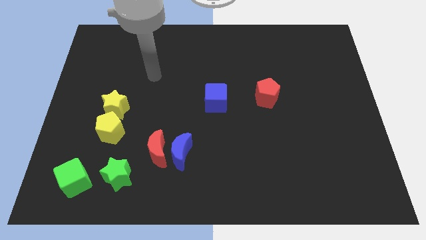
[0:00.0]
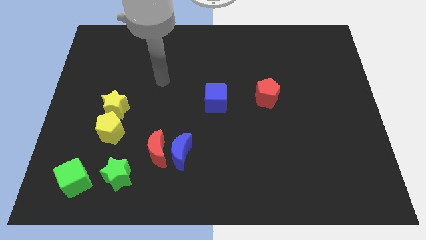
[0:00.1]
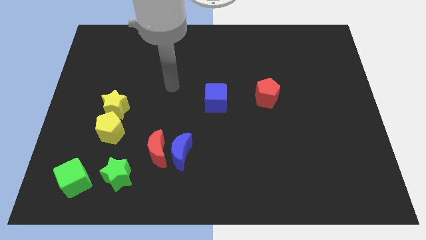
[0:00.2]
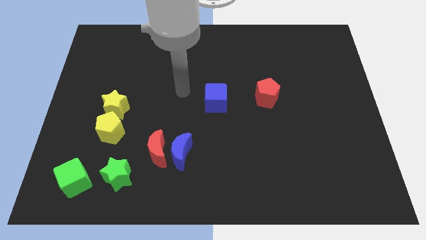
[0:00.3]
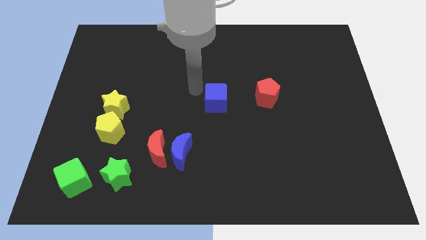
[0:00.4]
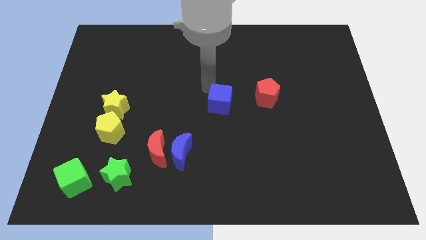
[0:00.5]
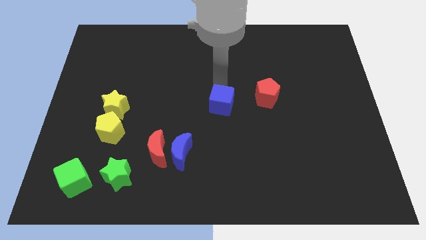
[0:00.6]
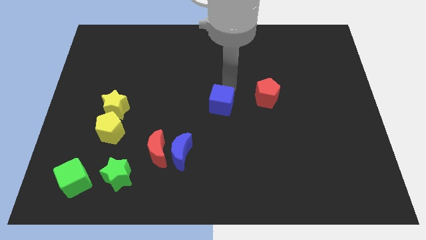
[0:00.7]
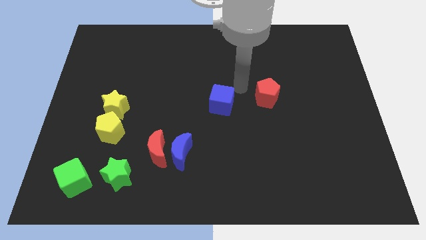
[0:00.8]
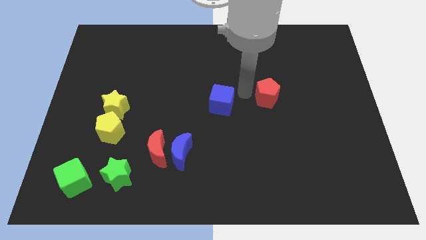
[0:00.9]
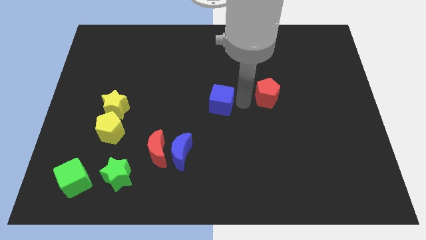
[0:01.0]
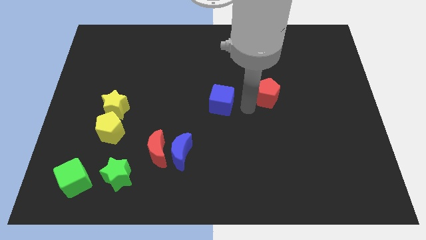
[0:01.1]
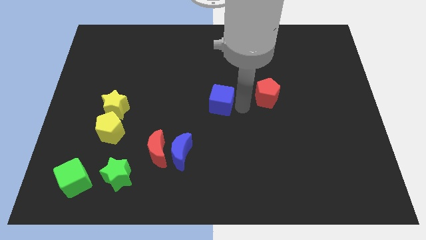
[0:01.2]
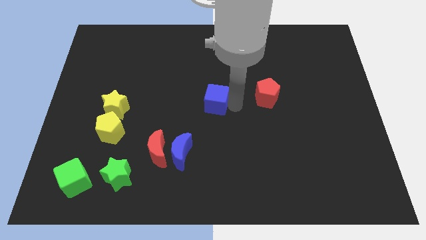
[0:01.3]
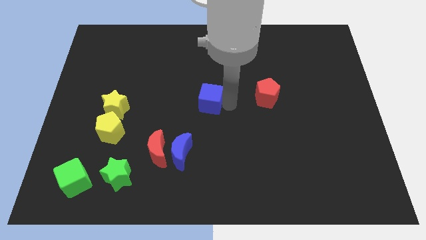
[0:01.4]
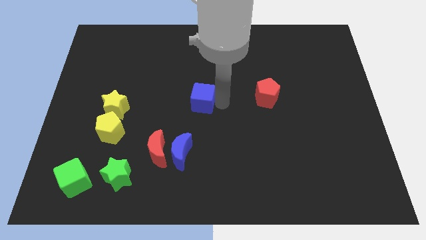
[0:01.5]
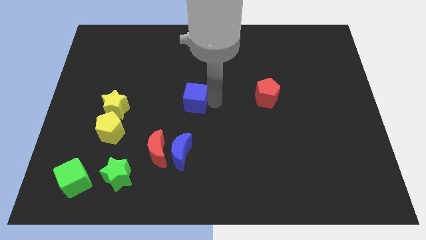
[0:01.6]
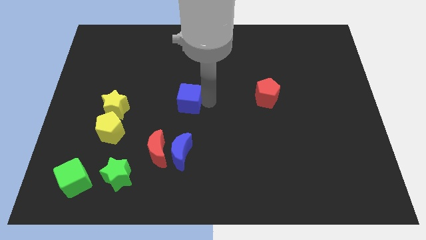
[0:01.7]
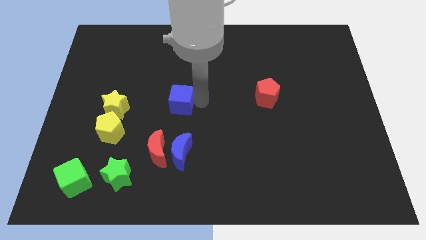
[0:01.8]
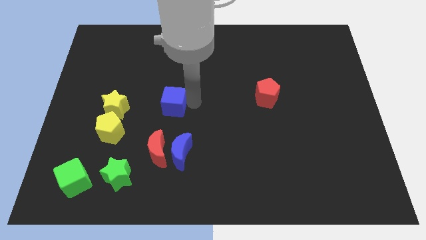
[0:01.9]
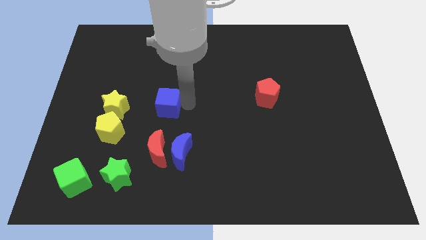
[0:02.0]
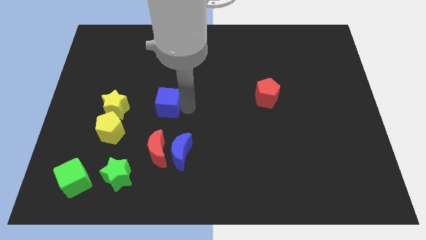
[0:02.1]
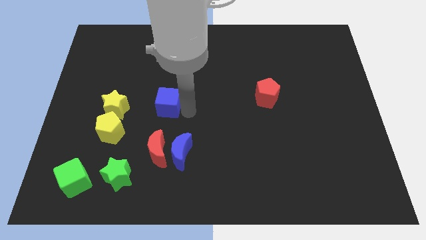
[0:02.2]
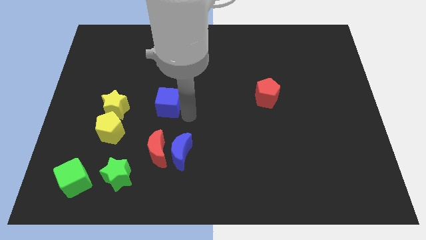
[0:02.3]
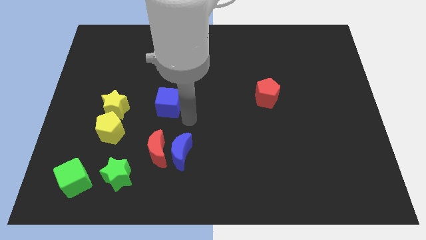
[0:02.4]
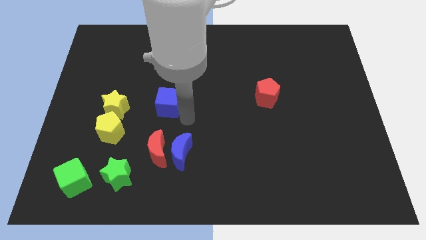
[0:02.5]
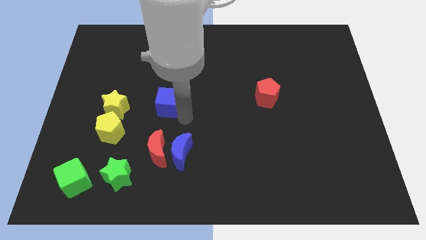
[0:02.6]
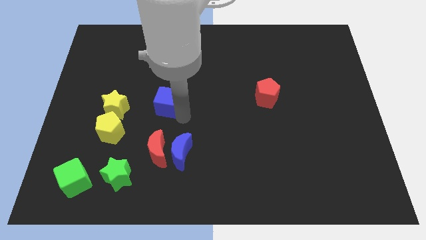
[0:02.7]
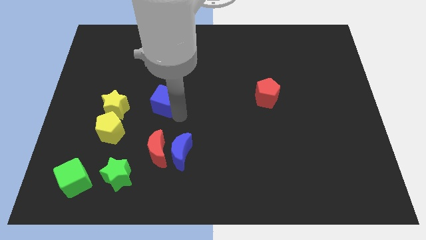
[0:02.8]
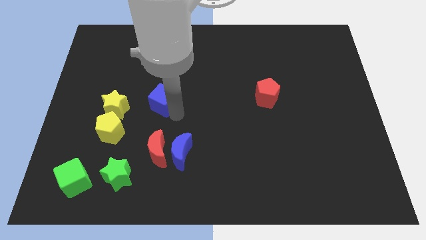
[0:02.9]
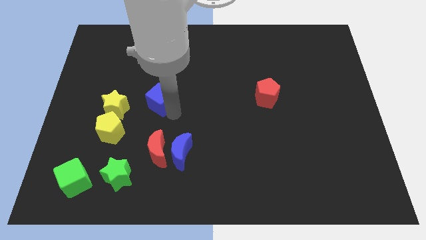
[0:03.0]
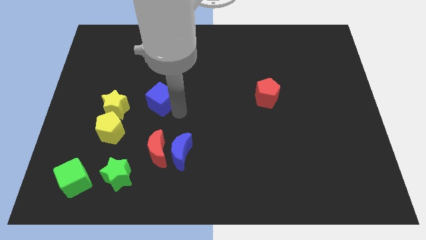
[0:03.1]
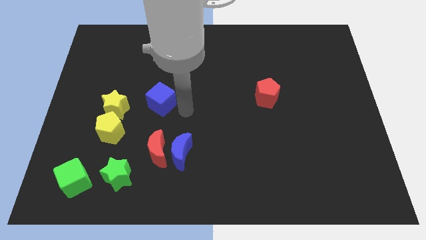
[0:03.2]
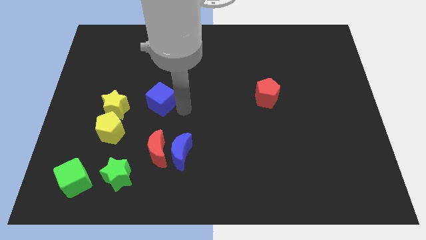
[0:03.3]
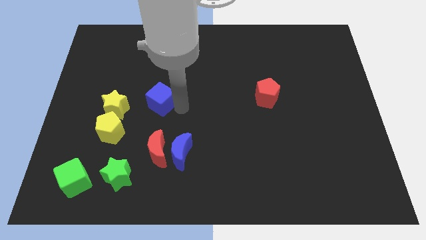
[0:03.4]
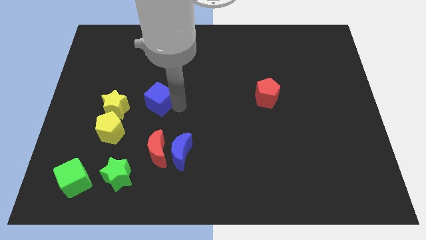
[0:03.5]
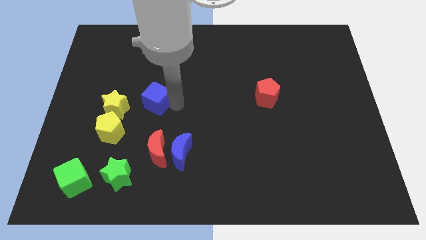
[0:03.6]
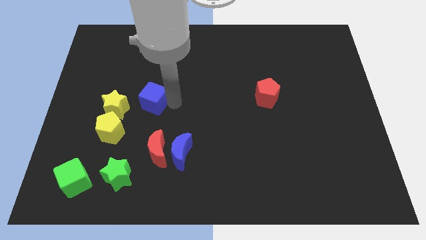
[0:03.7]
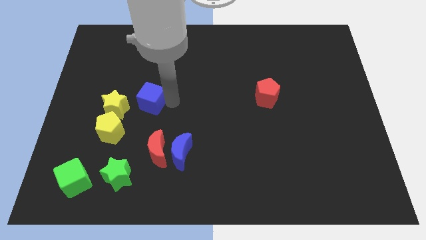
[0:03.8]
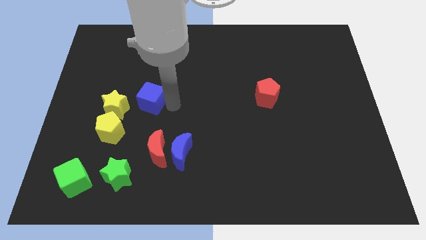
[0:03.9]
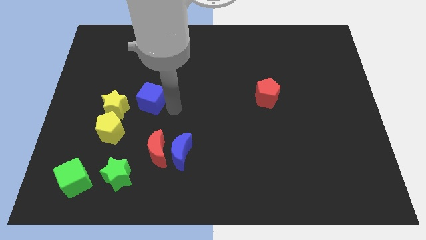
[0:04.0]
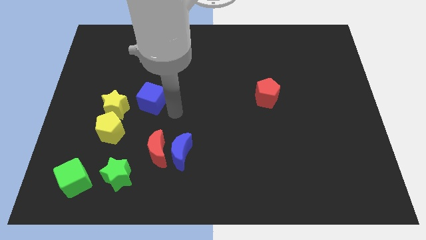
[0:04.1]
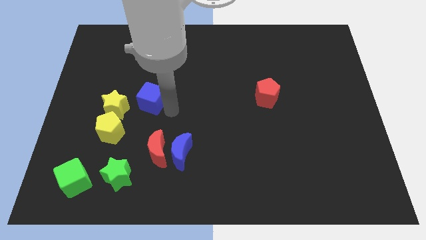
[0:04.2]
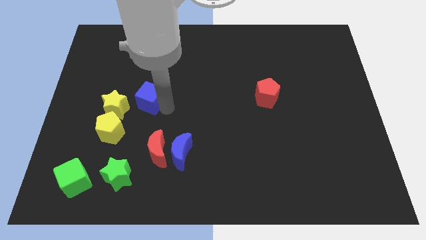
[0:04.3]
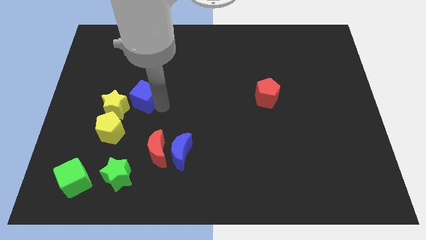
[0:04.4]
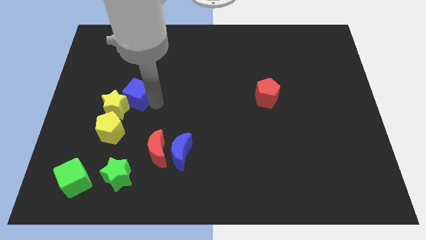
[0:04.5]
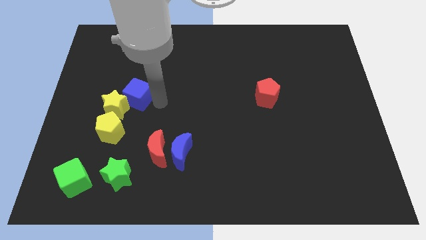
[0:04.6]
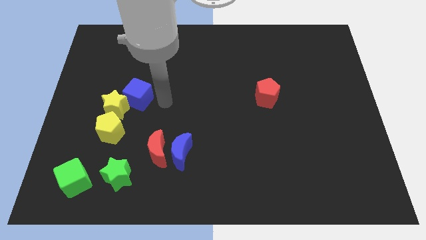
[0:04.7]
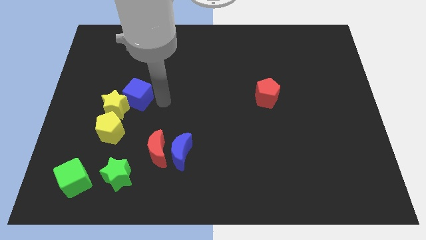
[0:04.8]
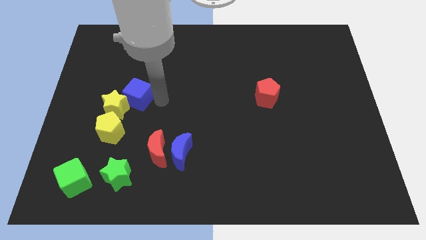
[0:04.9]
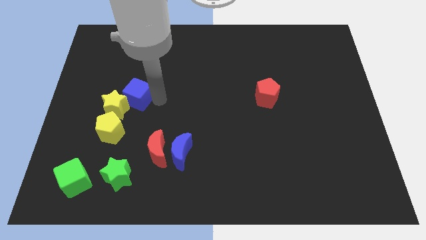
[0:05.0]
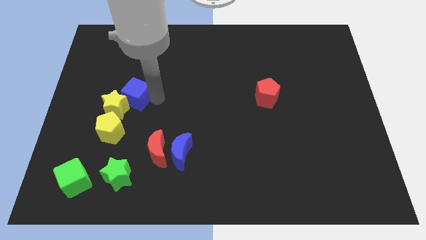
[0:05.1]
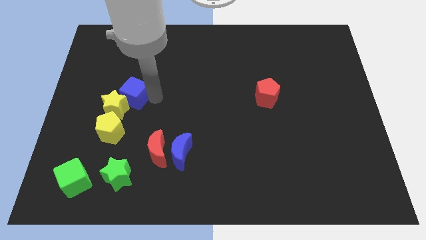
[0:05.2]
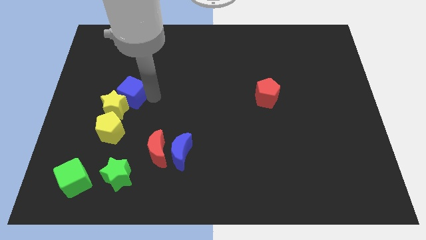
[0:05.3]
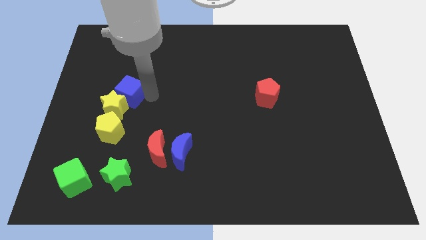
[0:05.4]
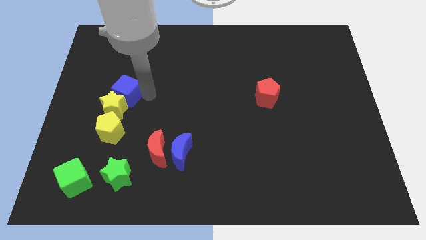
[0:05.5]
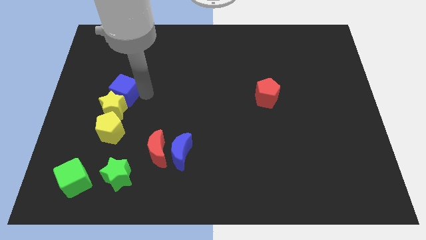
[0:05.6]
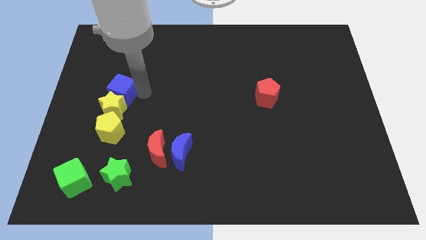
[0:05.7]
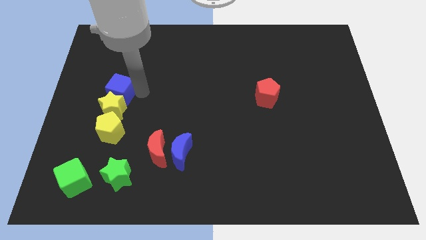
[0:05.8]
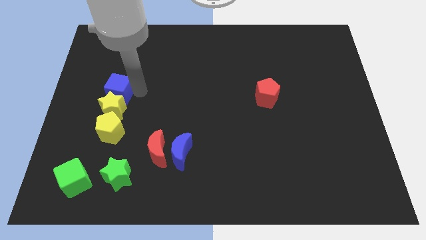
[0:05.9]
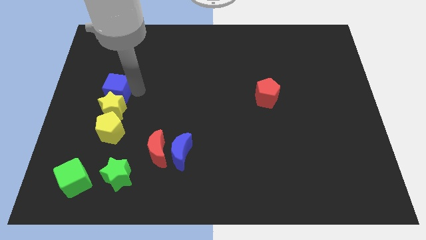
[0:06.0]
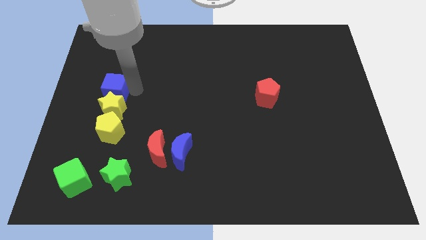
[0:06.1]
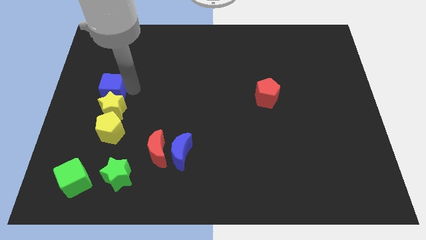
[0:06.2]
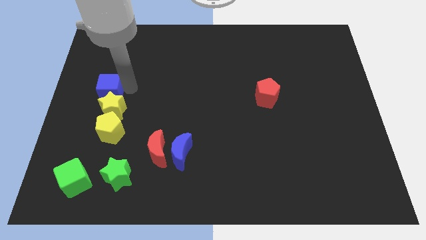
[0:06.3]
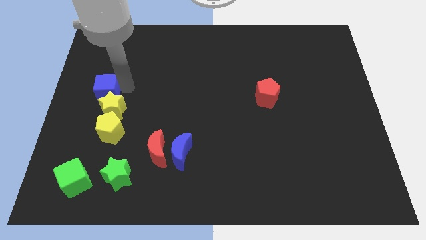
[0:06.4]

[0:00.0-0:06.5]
push the blue cube to the left side of the board
